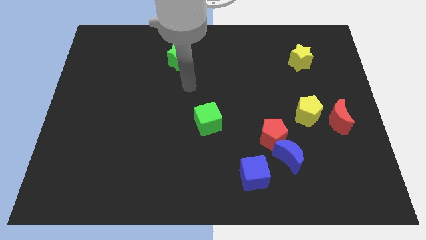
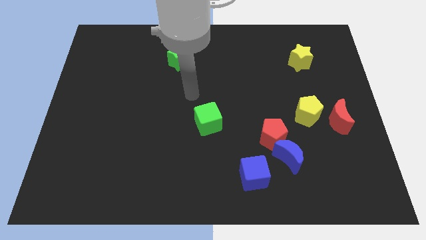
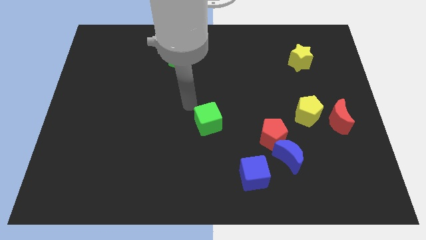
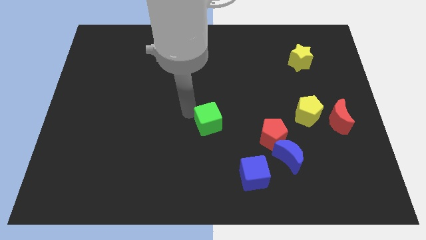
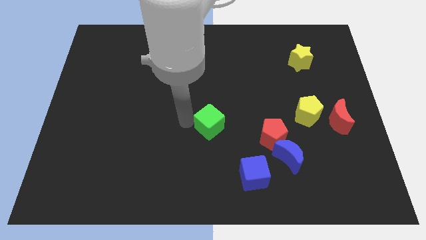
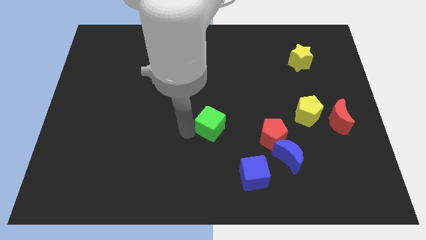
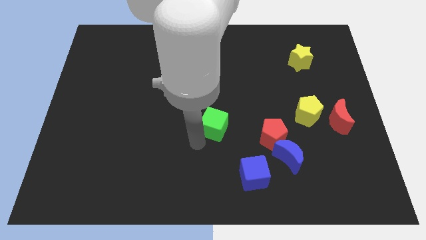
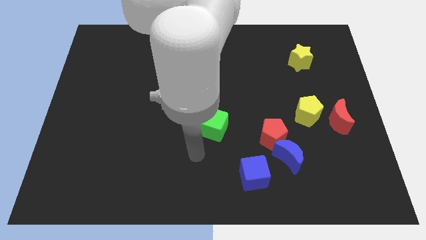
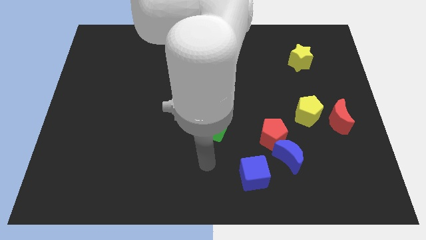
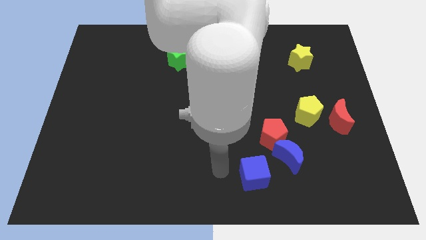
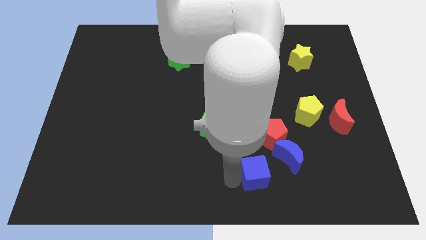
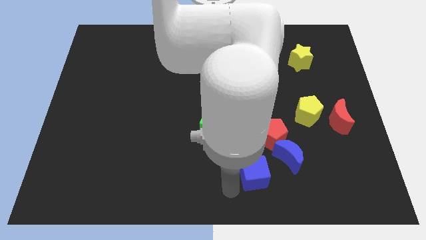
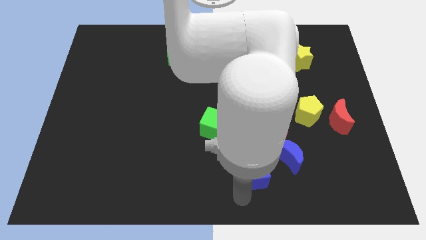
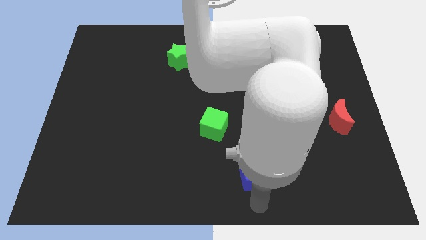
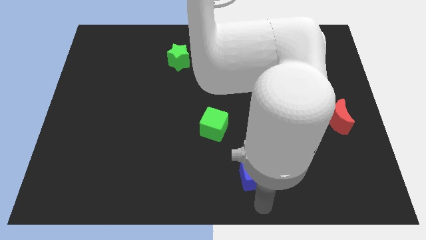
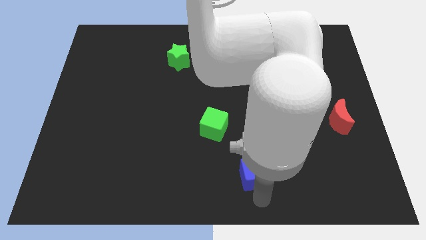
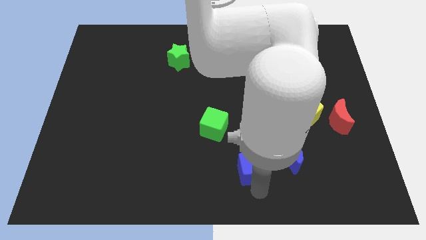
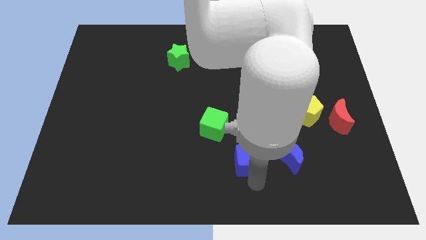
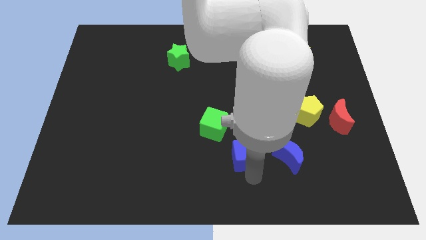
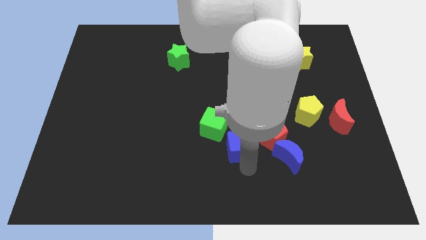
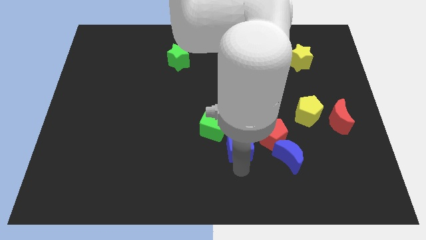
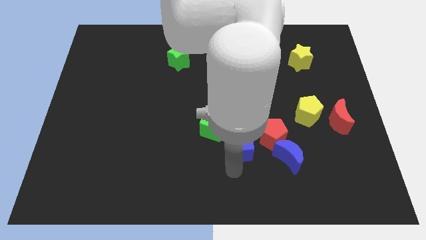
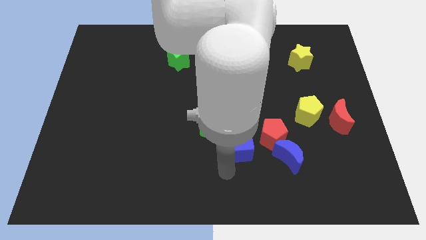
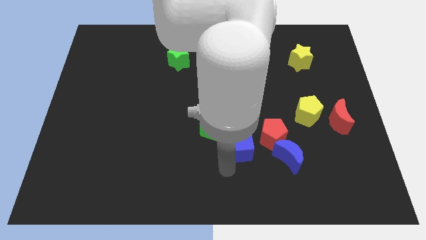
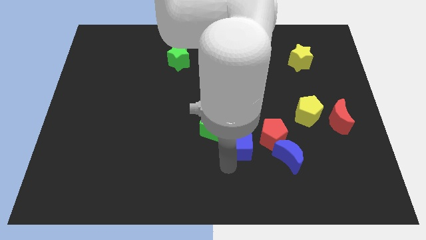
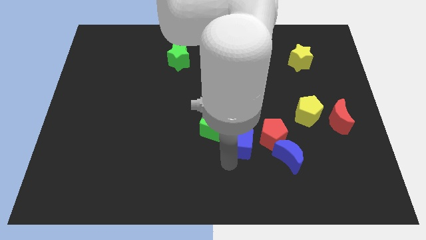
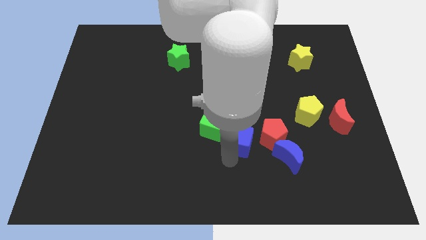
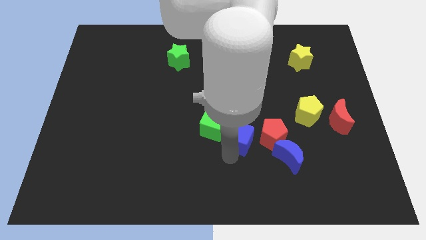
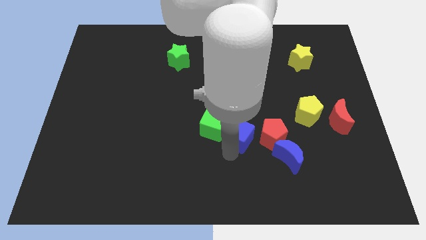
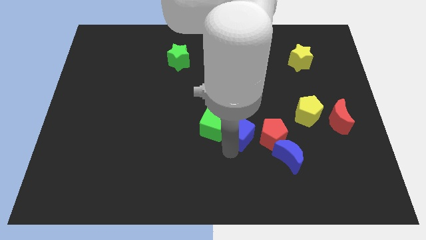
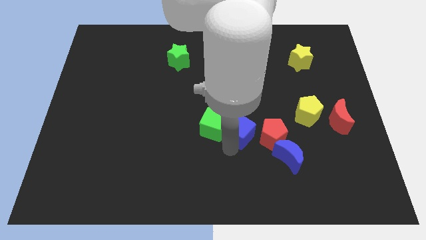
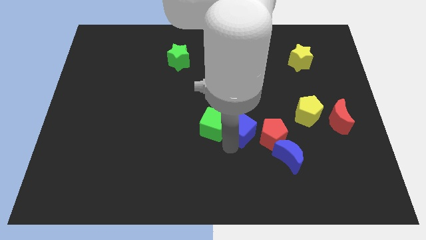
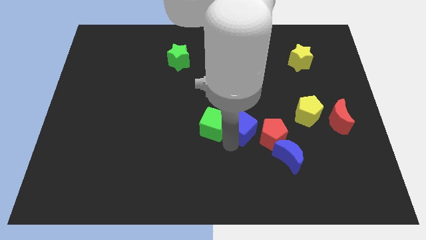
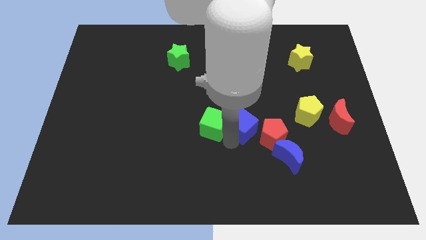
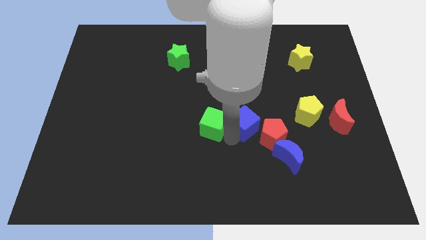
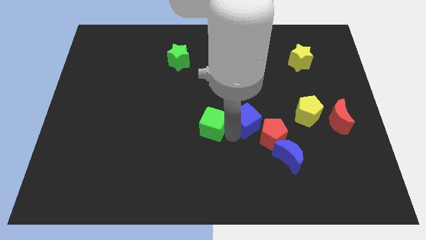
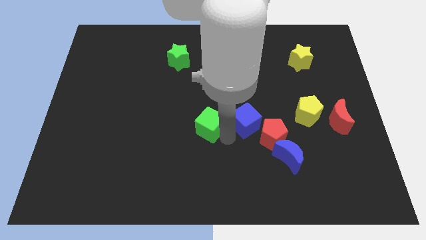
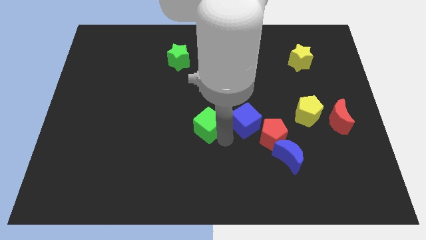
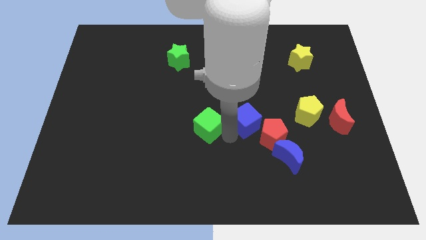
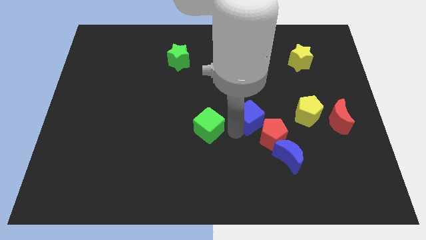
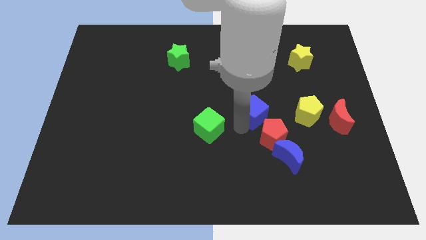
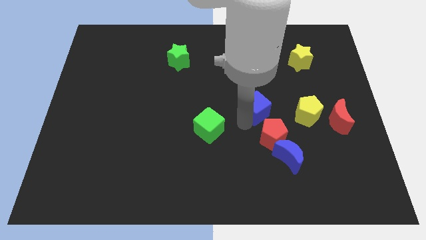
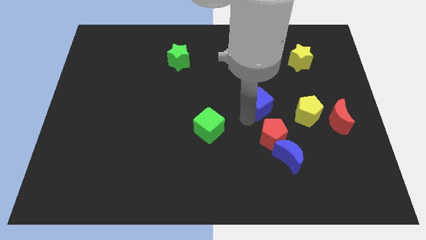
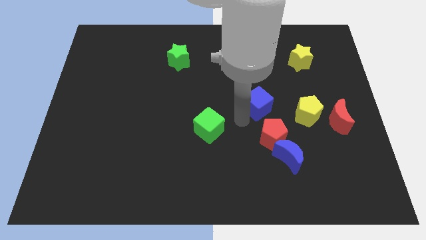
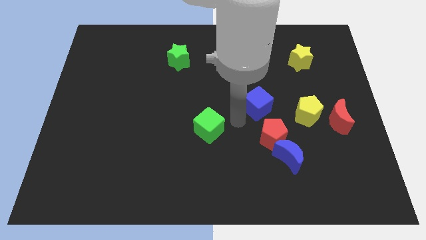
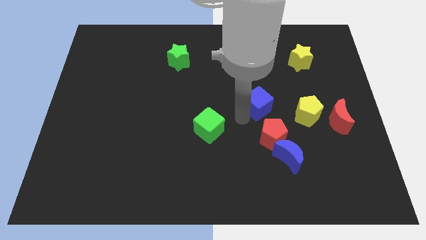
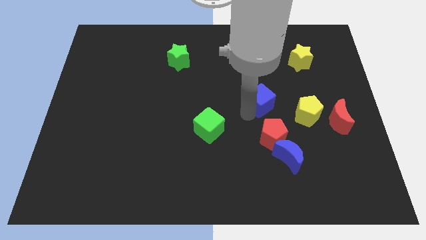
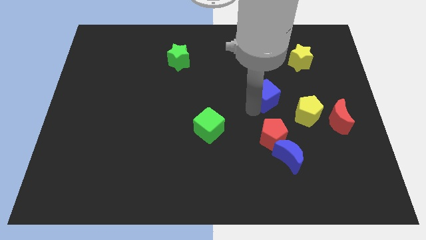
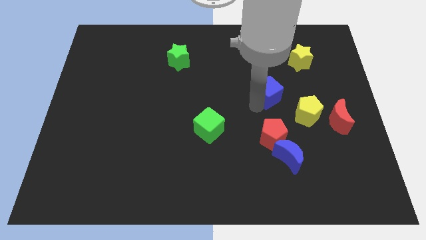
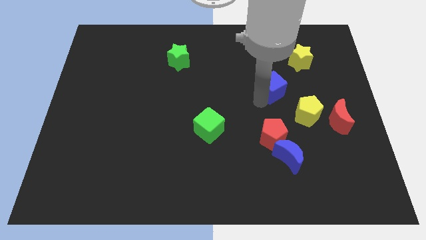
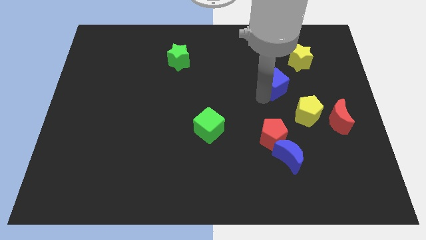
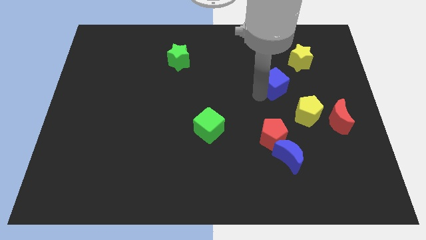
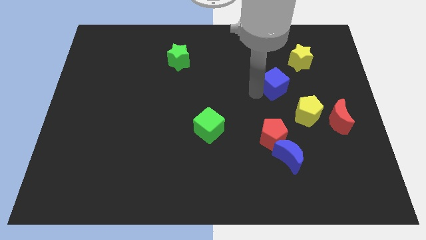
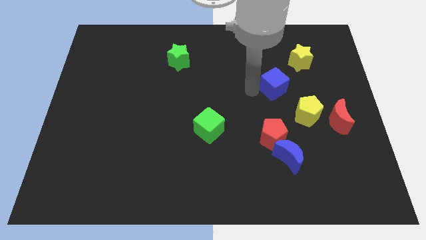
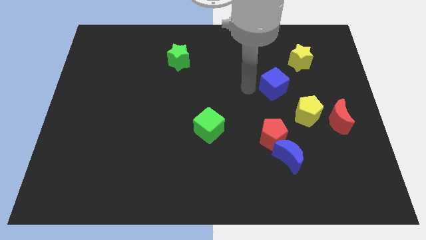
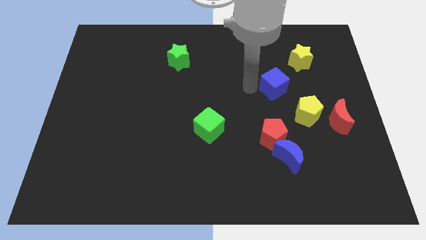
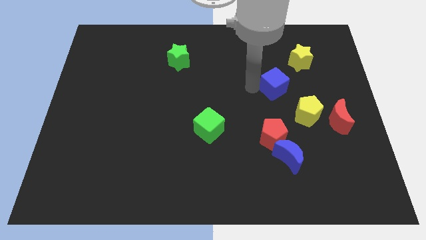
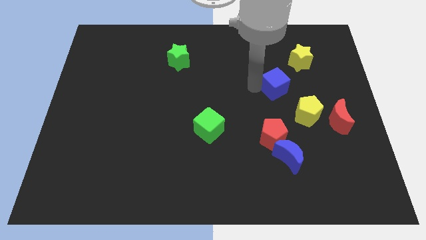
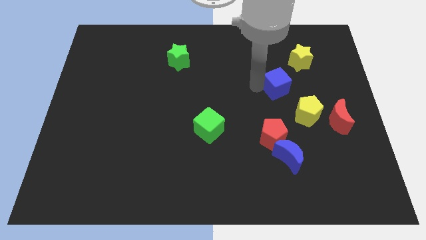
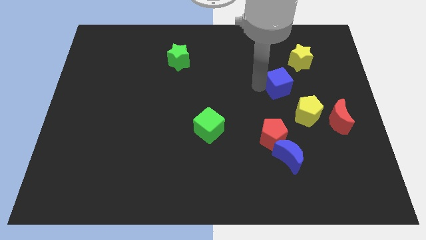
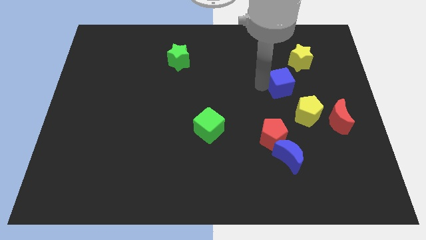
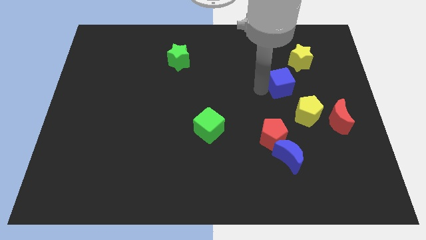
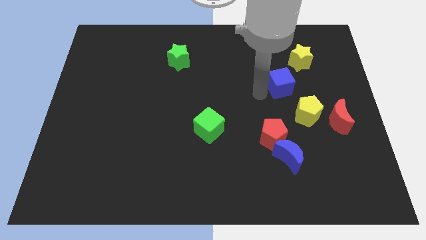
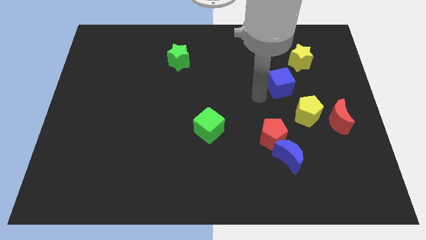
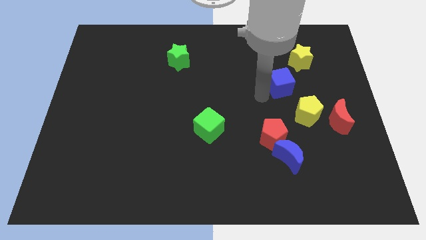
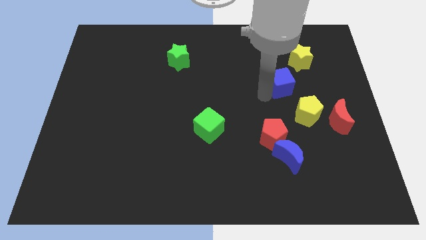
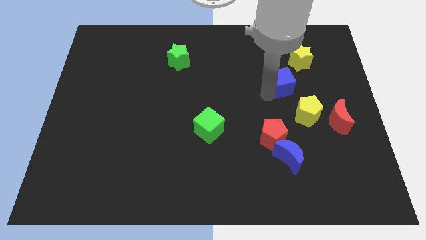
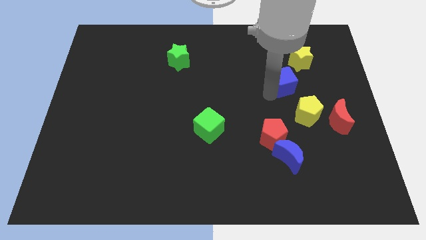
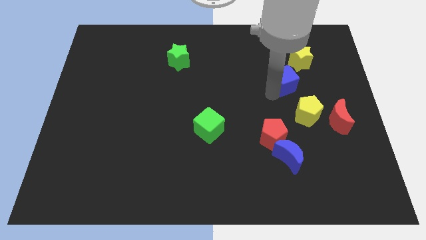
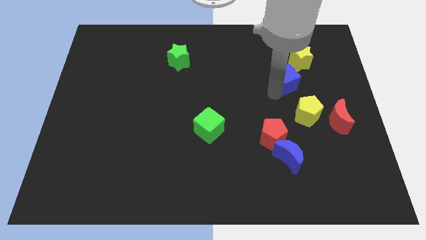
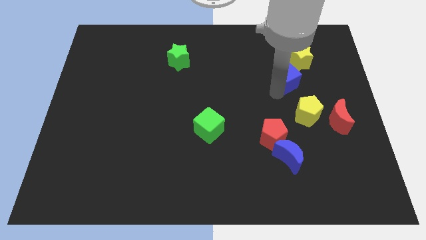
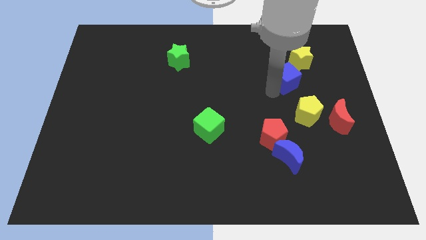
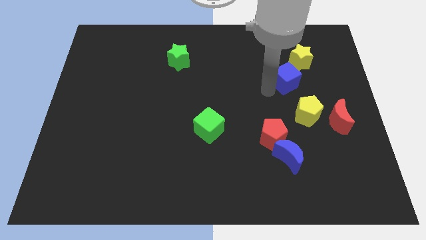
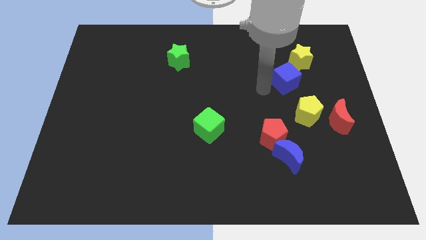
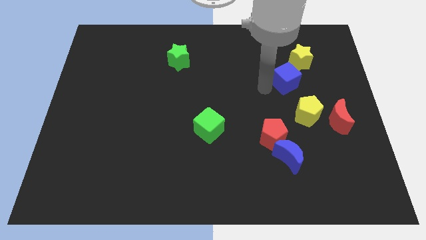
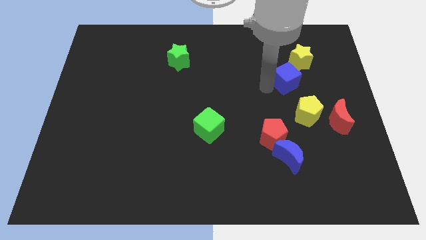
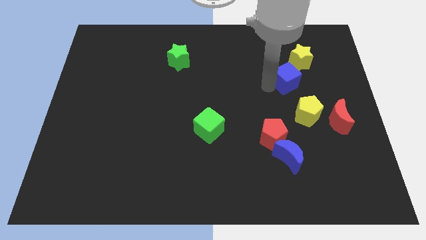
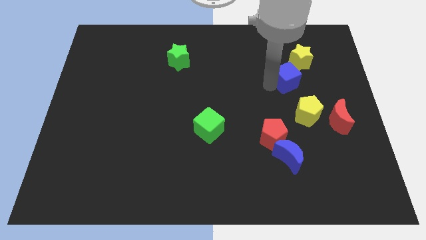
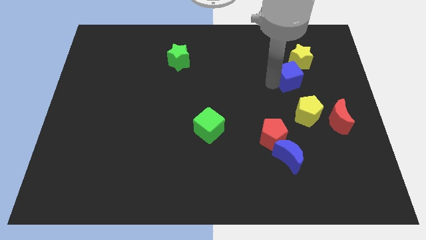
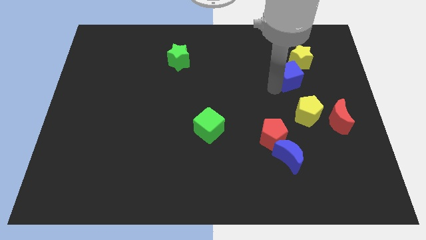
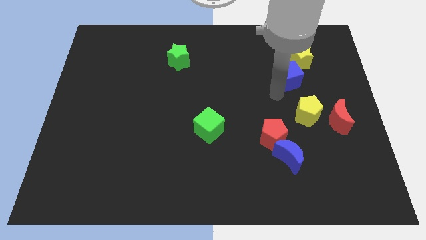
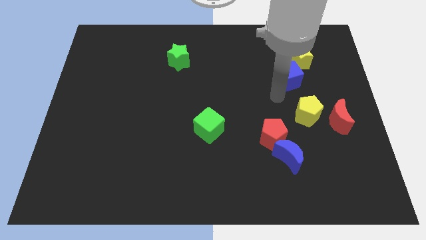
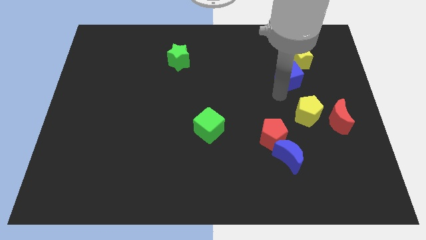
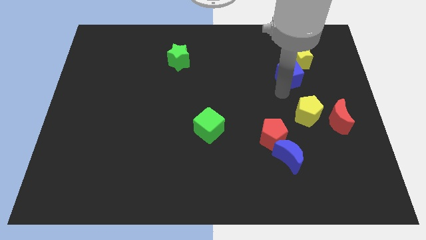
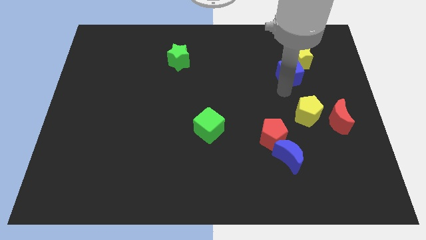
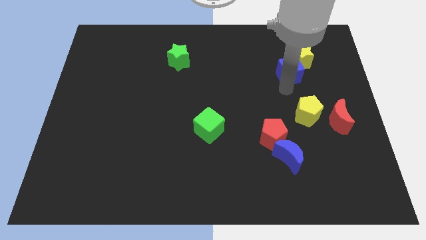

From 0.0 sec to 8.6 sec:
push the blue cube to the yellow star
